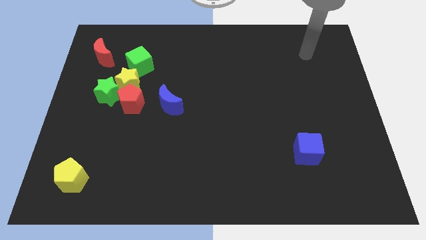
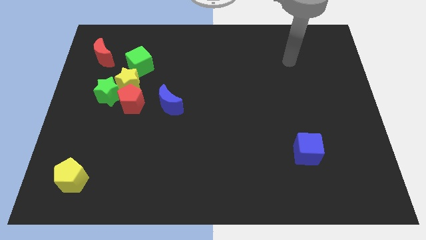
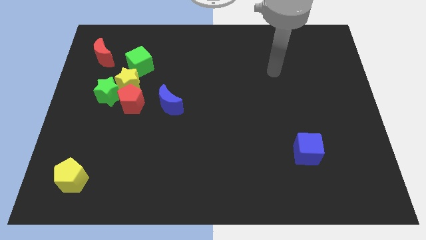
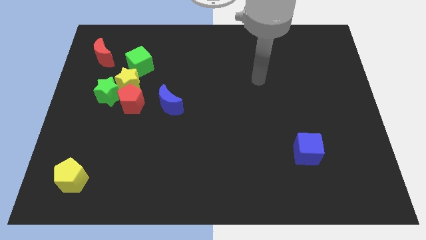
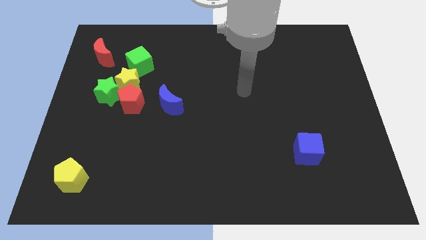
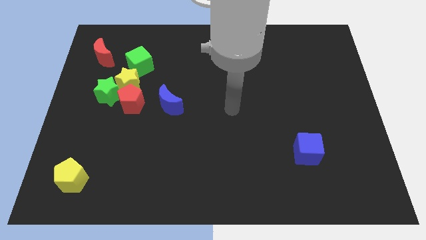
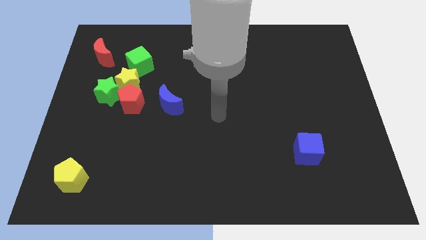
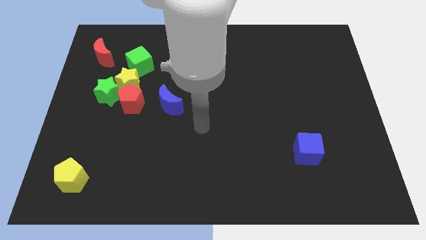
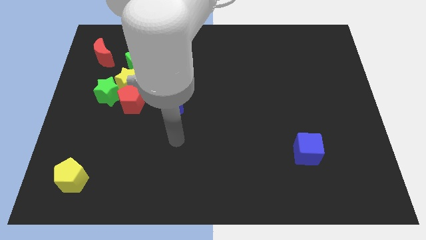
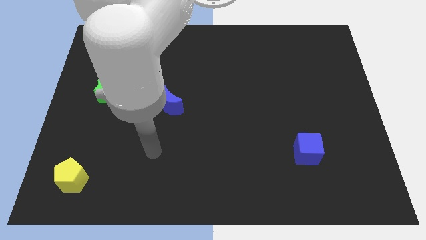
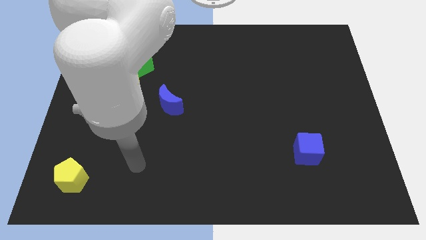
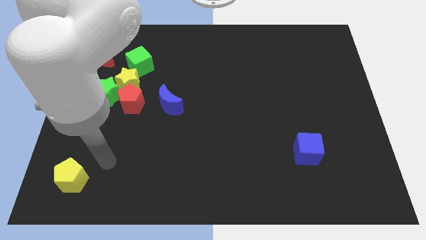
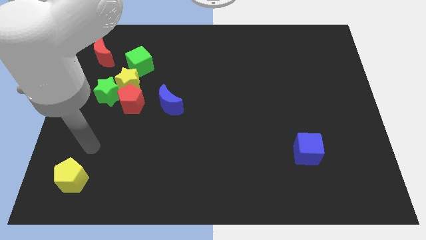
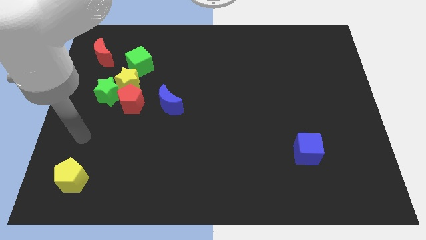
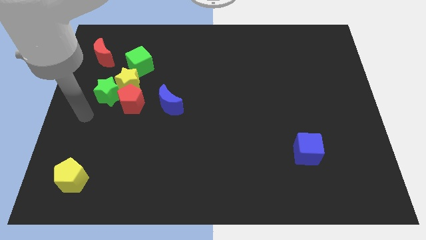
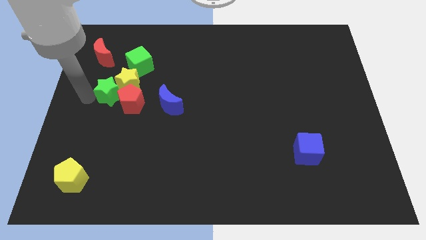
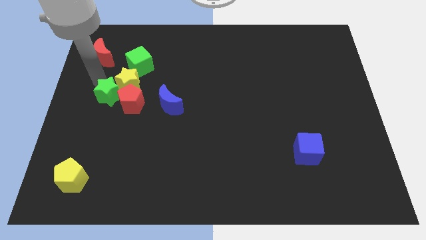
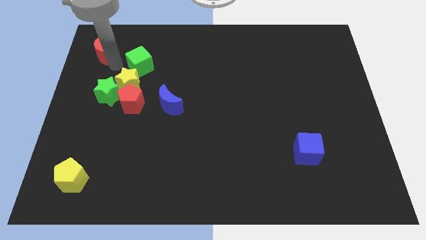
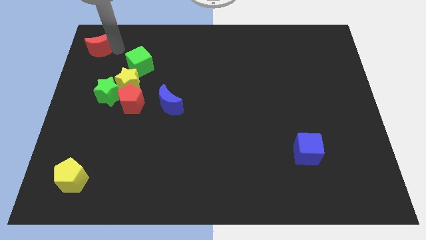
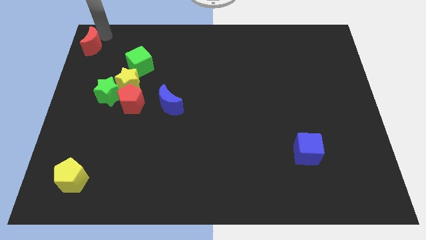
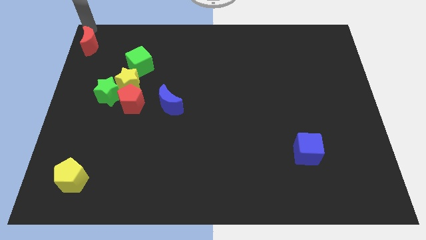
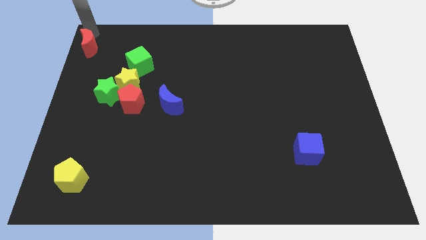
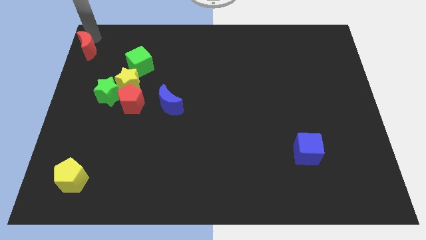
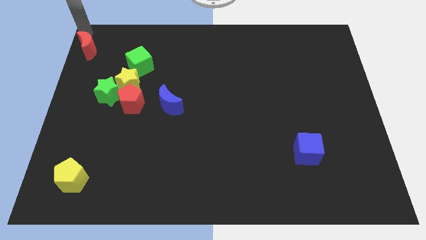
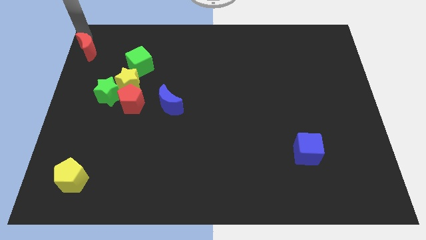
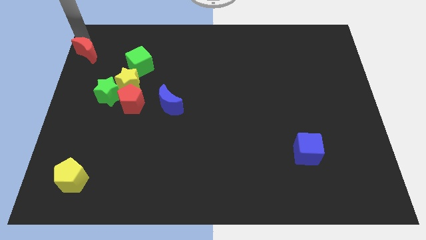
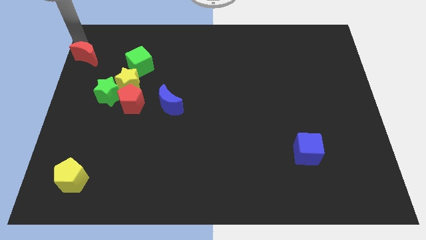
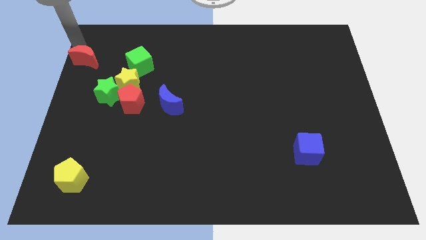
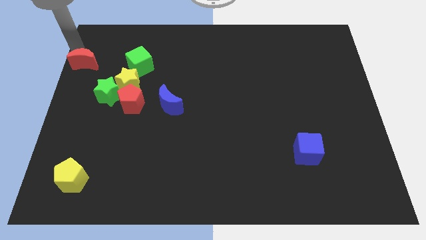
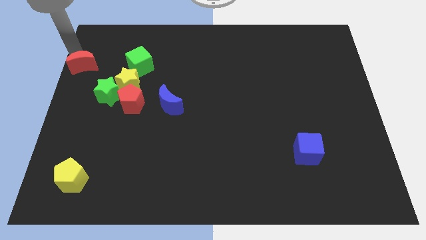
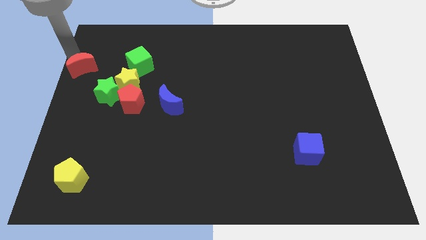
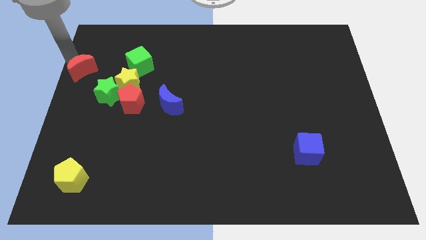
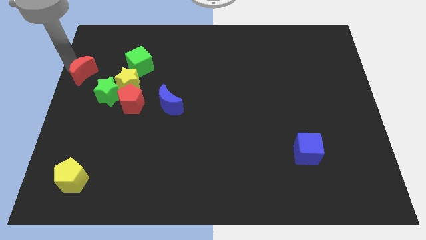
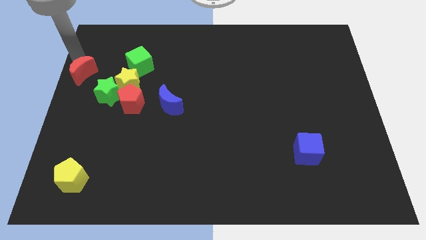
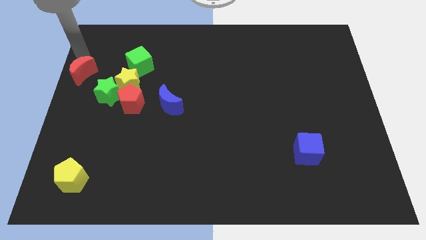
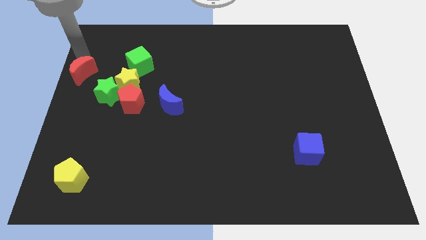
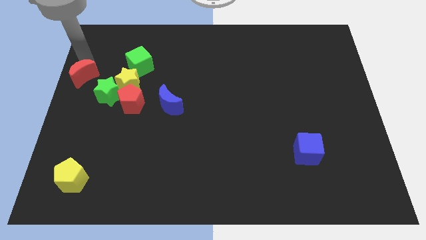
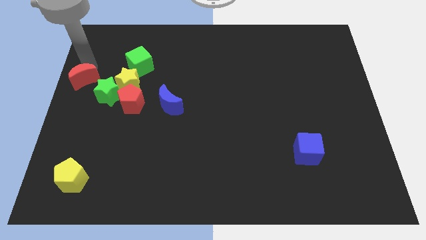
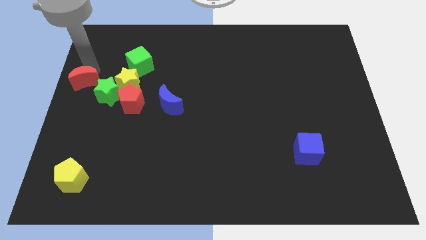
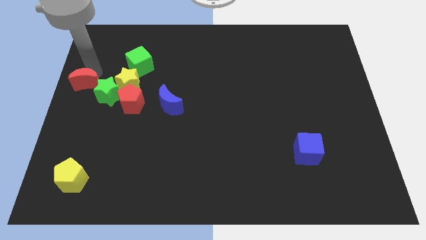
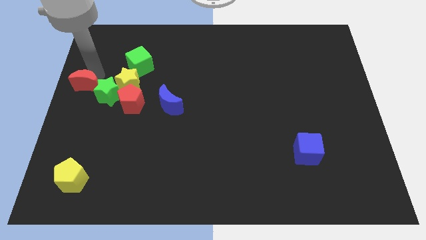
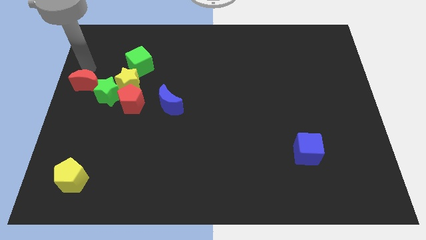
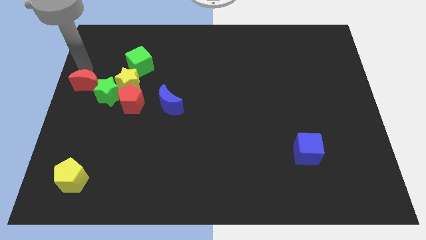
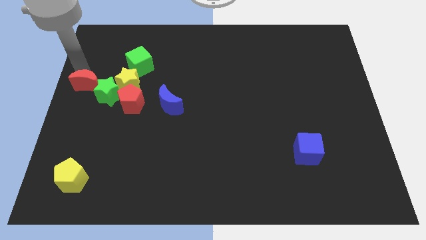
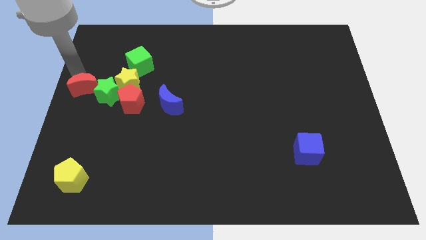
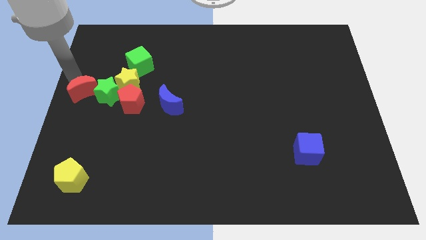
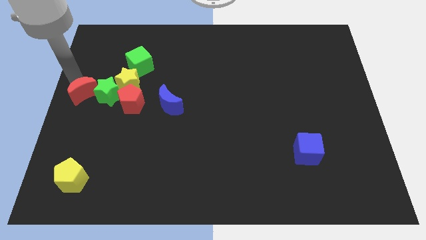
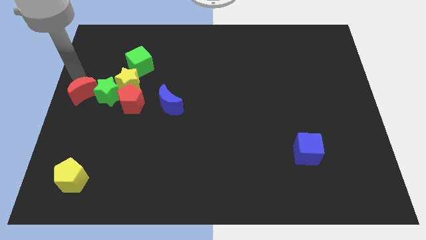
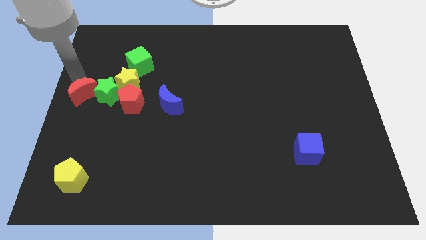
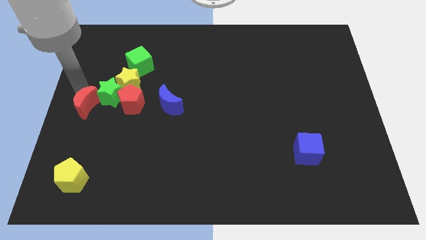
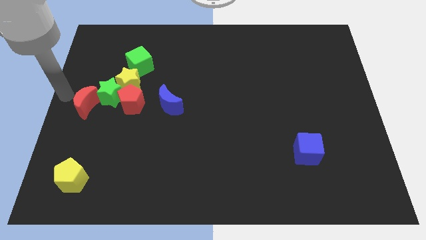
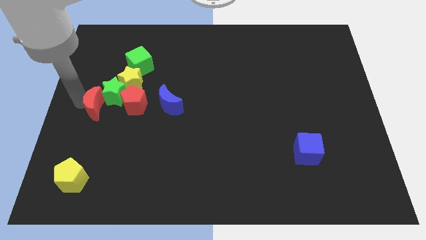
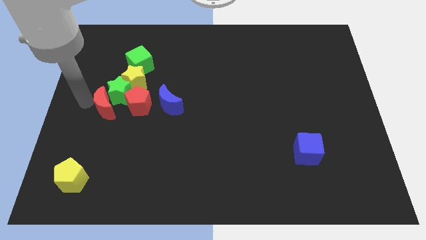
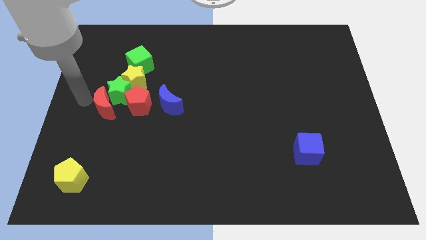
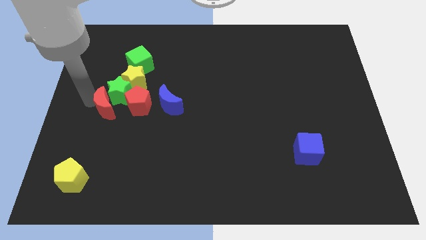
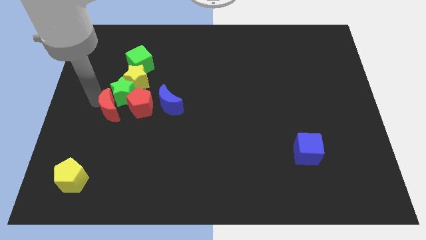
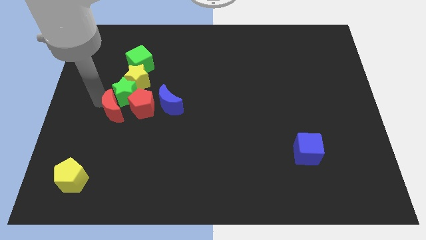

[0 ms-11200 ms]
move the red moon to the bottom side of the yellow star

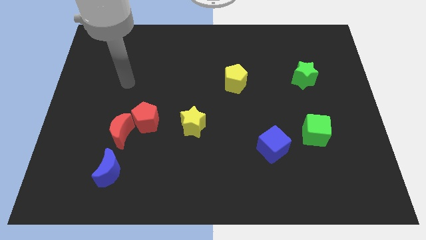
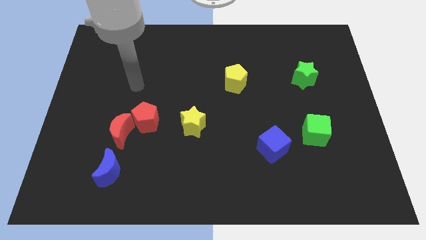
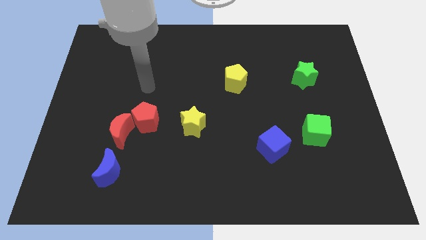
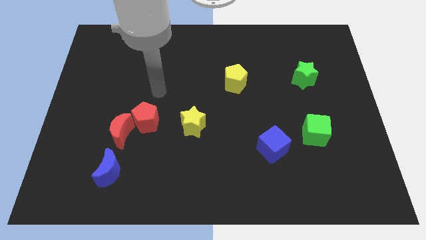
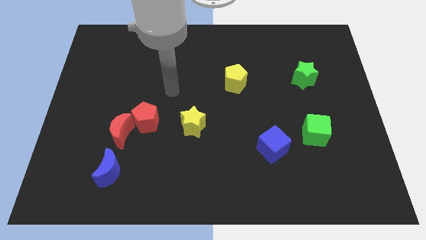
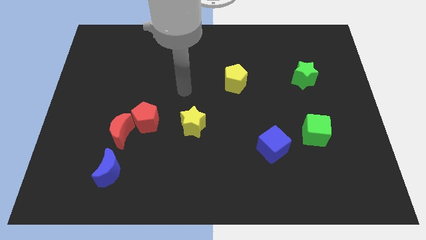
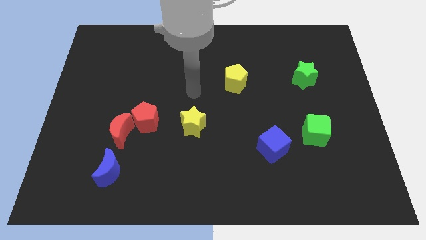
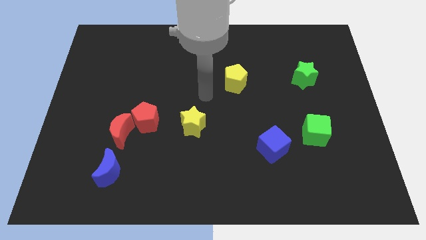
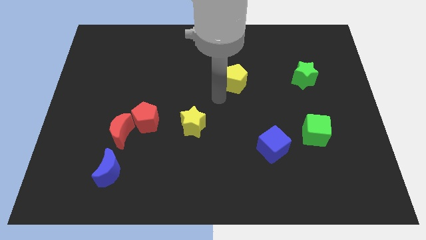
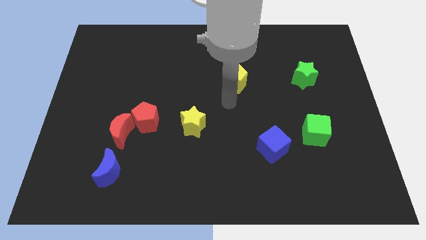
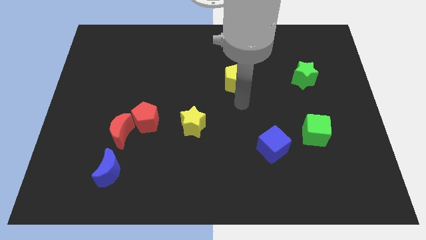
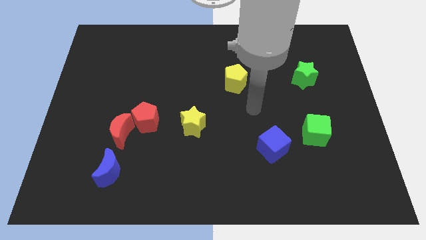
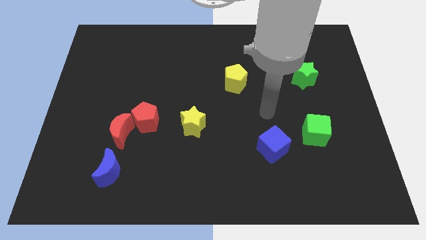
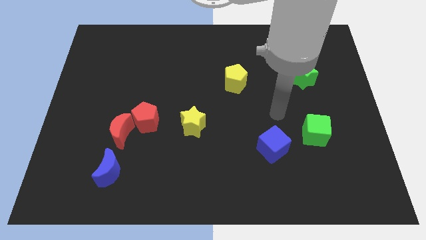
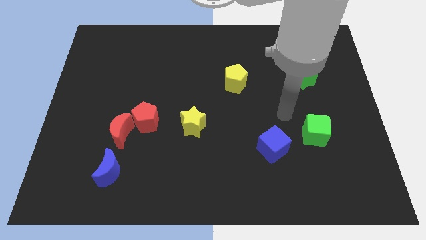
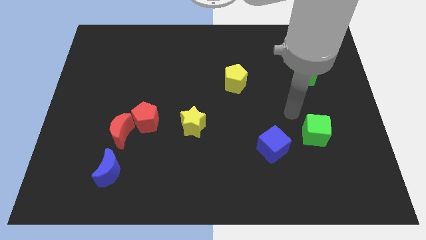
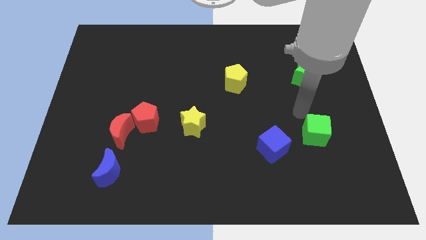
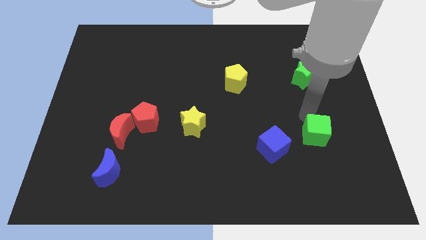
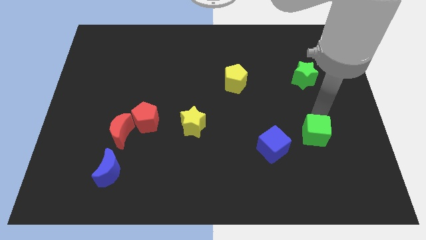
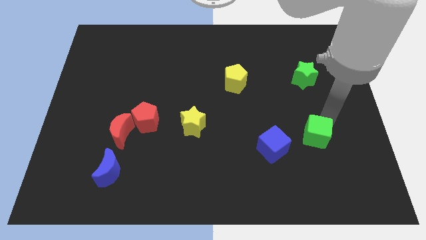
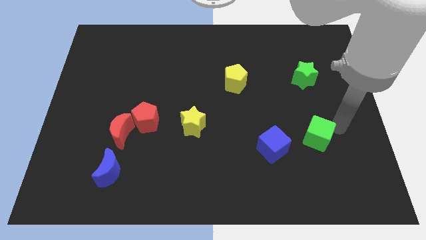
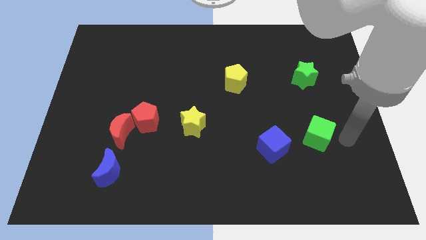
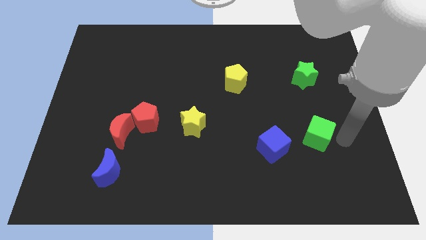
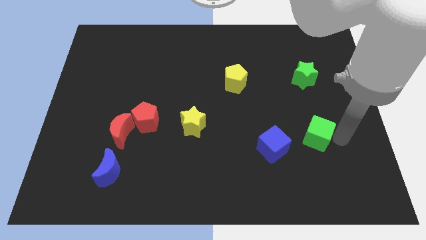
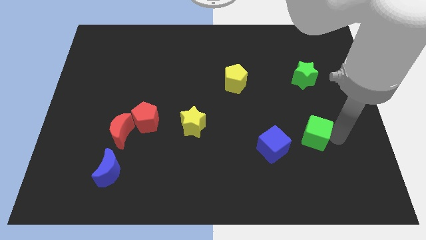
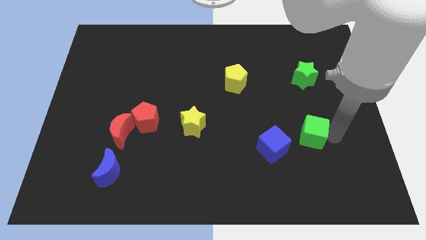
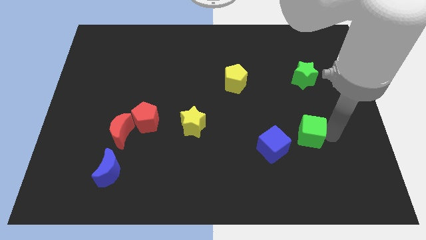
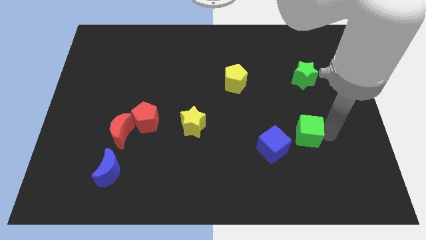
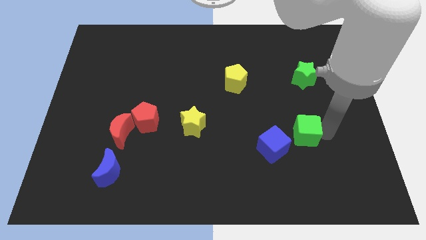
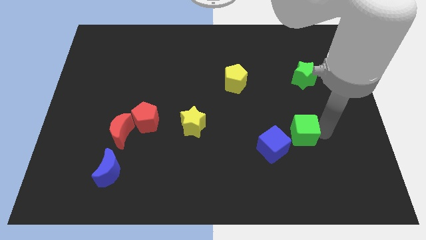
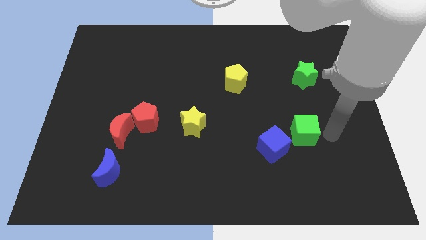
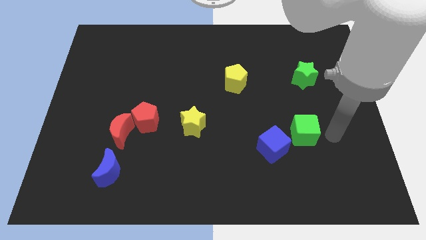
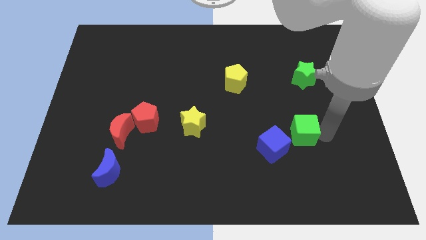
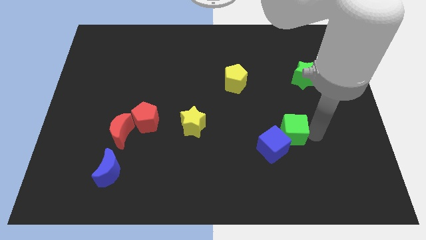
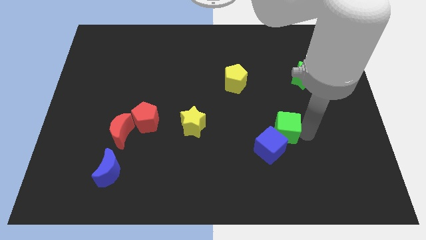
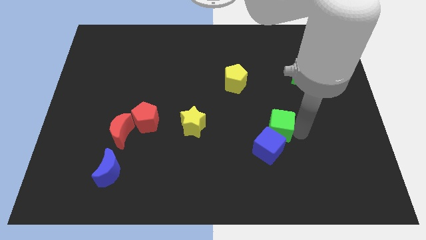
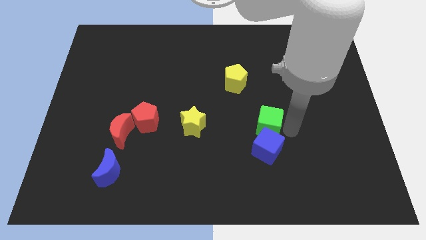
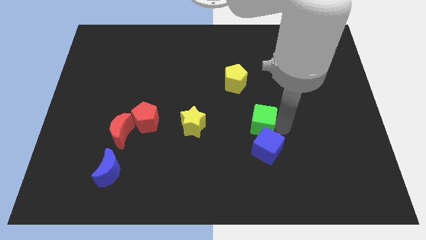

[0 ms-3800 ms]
push the green cube right of the yellow star
